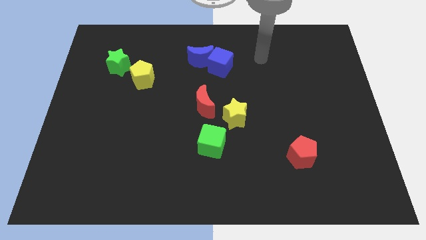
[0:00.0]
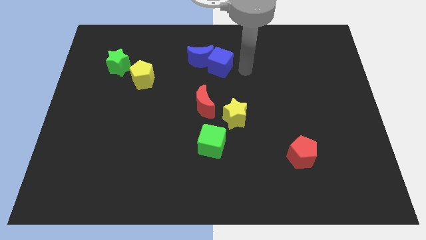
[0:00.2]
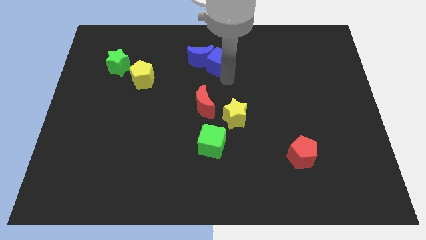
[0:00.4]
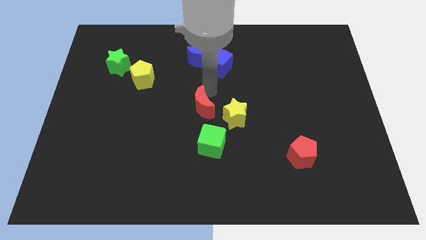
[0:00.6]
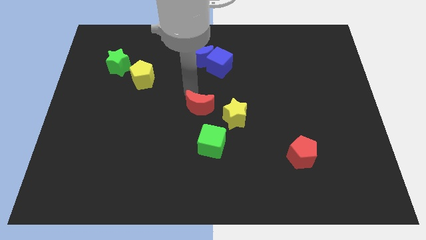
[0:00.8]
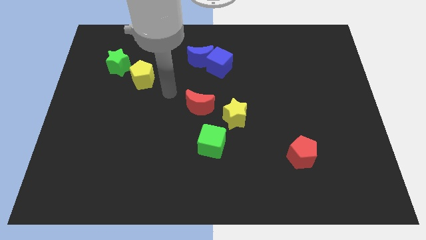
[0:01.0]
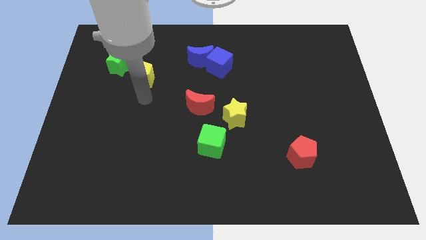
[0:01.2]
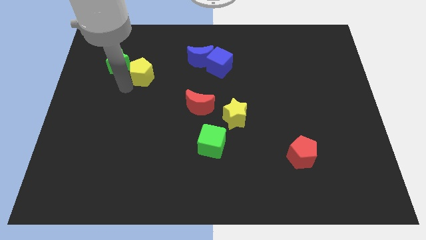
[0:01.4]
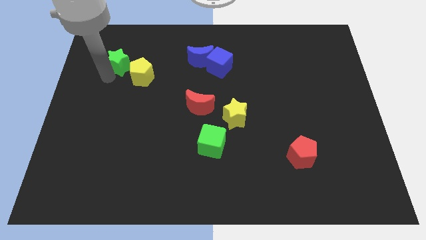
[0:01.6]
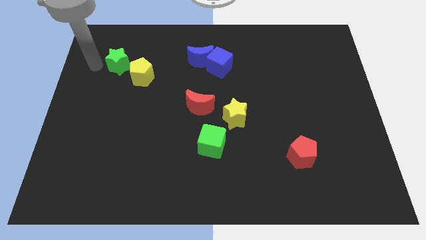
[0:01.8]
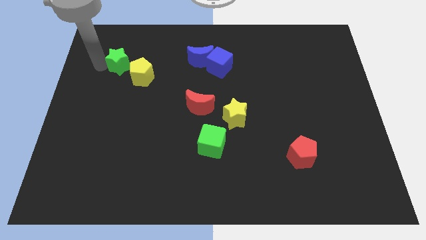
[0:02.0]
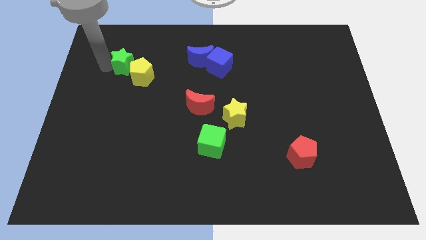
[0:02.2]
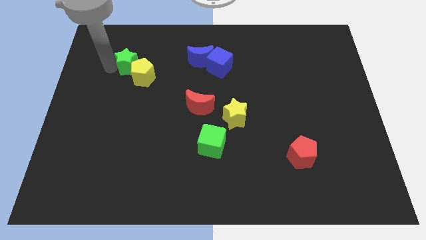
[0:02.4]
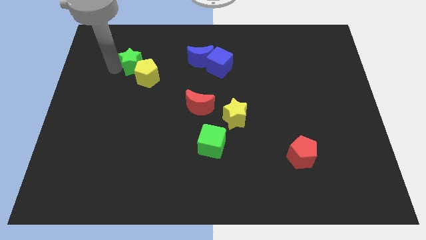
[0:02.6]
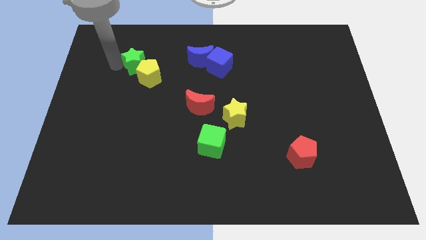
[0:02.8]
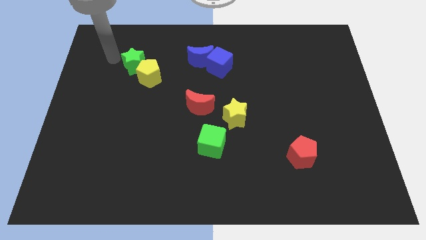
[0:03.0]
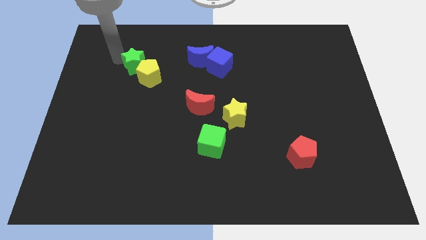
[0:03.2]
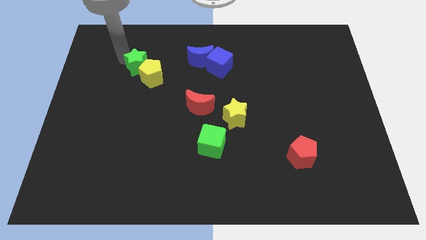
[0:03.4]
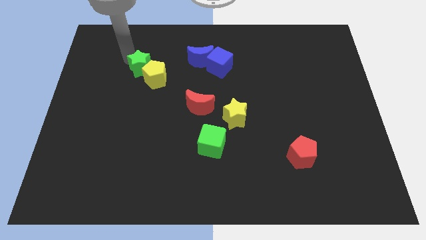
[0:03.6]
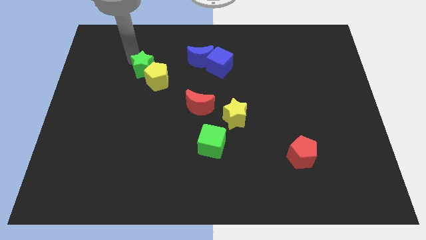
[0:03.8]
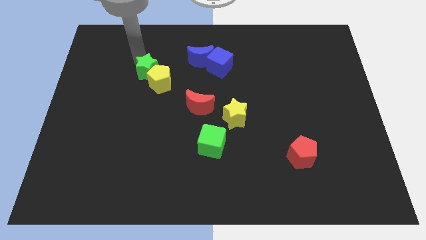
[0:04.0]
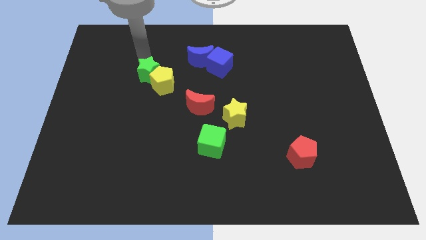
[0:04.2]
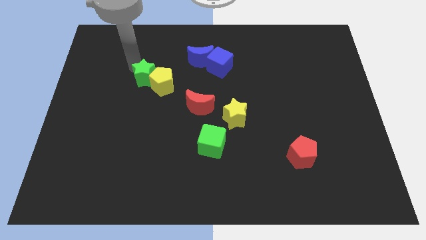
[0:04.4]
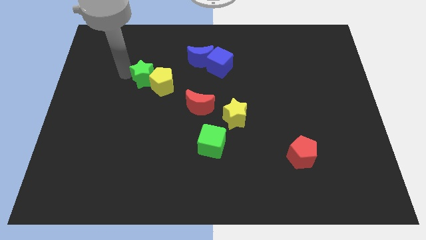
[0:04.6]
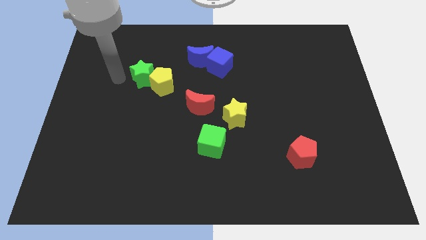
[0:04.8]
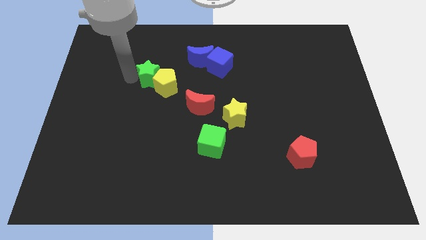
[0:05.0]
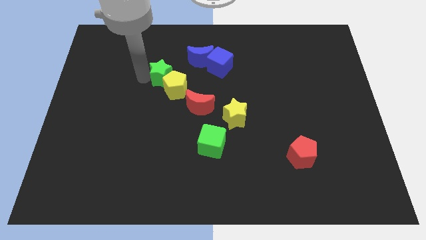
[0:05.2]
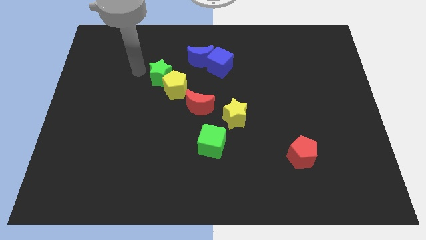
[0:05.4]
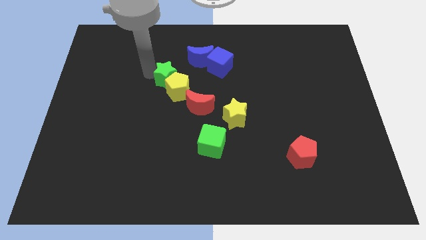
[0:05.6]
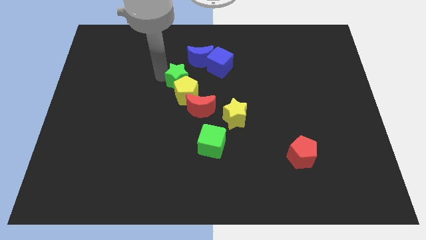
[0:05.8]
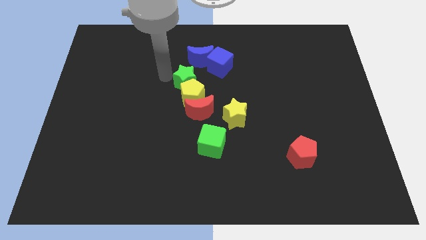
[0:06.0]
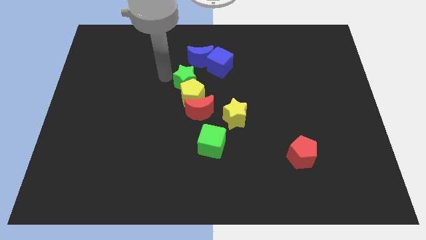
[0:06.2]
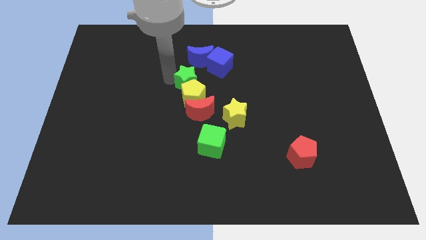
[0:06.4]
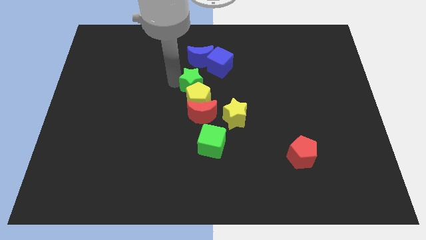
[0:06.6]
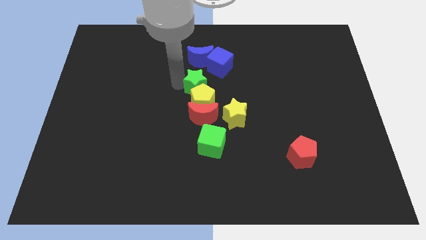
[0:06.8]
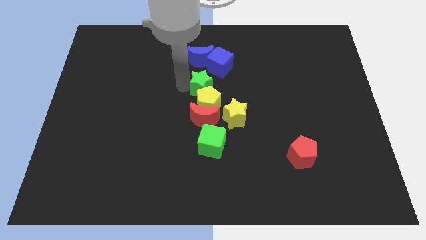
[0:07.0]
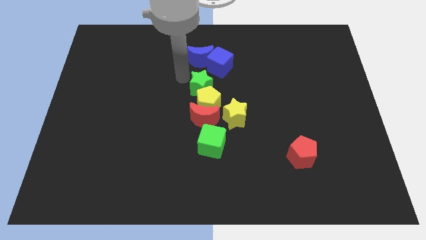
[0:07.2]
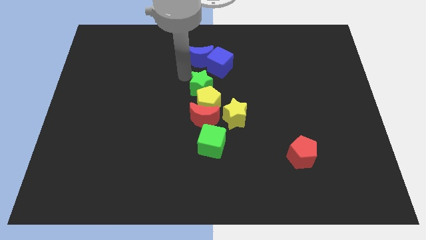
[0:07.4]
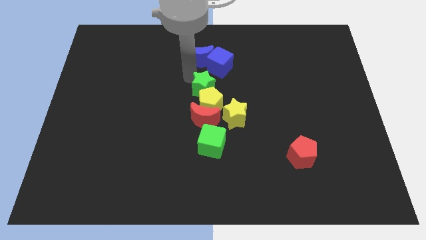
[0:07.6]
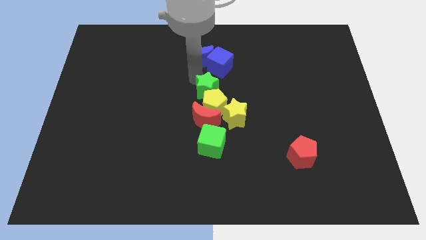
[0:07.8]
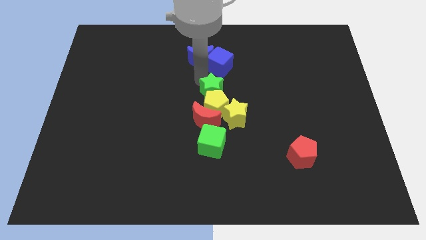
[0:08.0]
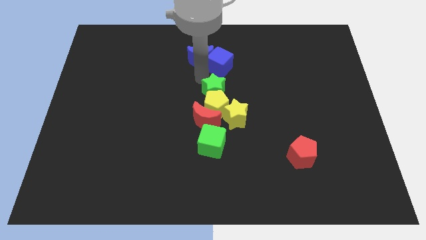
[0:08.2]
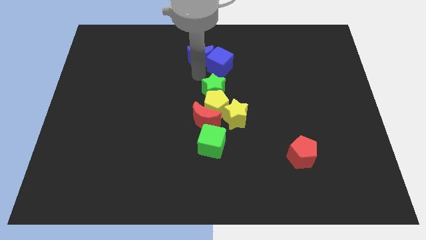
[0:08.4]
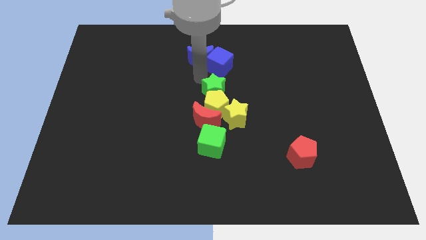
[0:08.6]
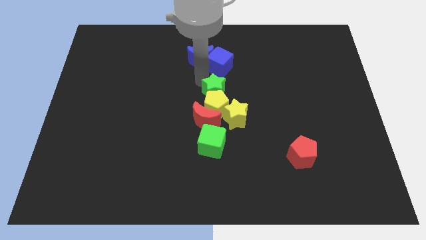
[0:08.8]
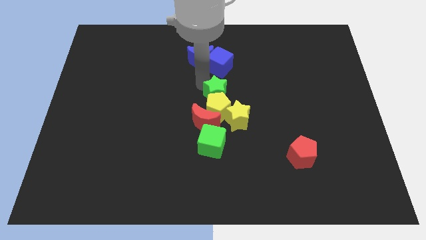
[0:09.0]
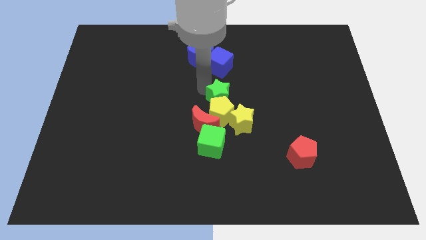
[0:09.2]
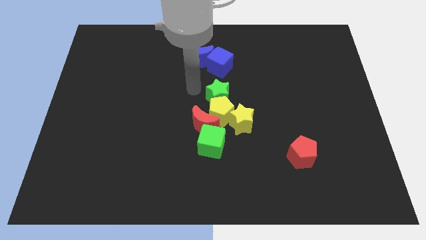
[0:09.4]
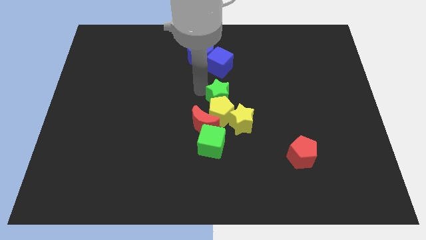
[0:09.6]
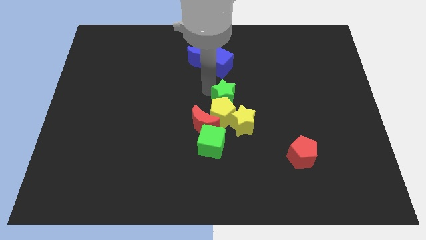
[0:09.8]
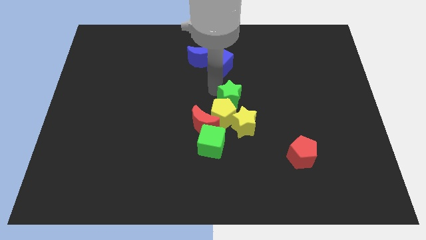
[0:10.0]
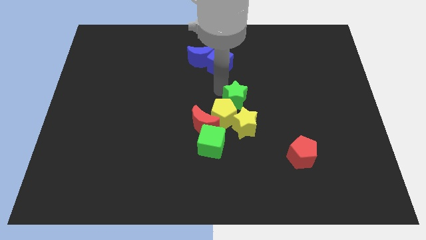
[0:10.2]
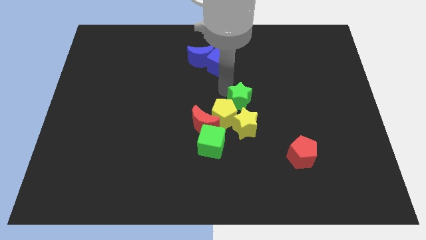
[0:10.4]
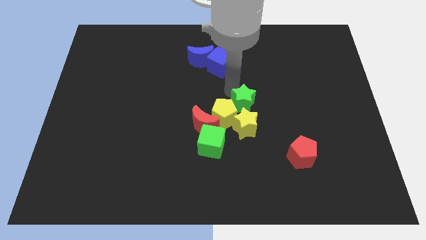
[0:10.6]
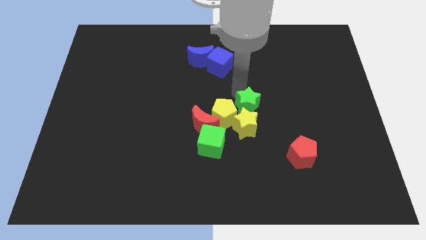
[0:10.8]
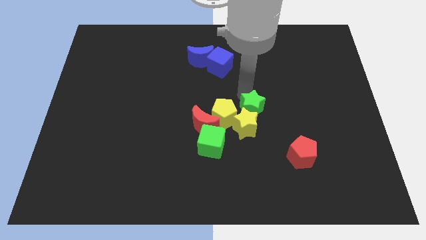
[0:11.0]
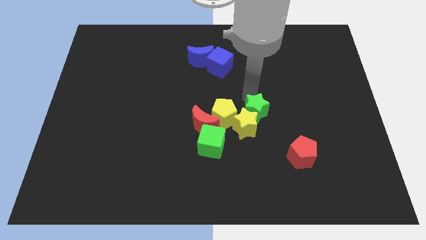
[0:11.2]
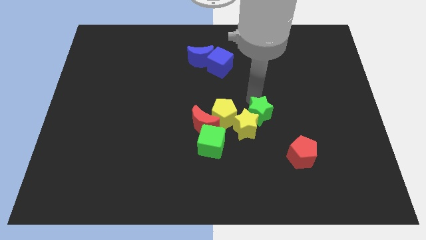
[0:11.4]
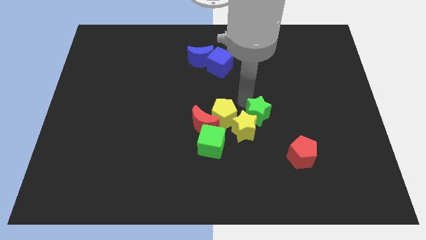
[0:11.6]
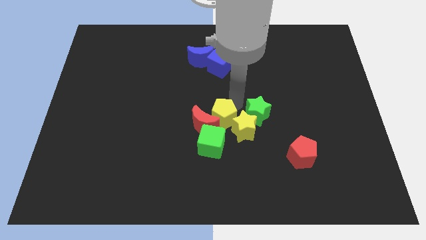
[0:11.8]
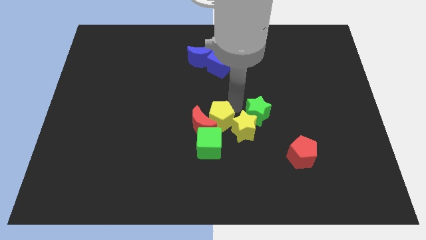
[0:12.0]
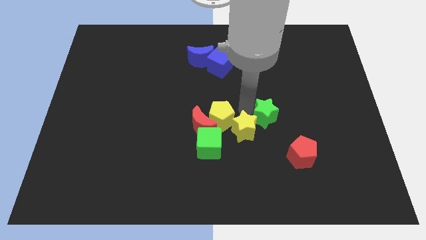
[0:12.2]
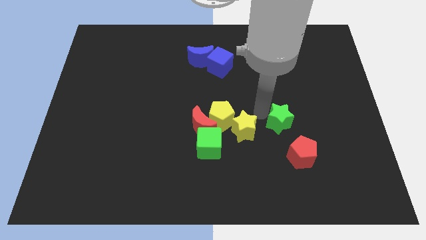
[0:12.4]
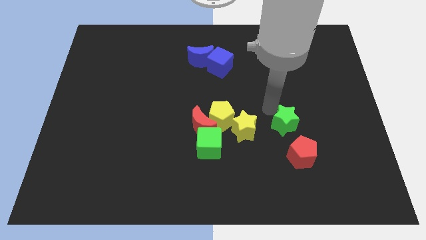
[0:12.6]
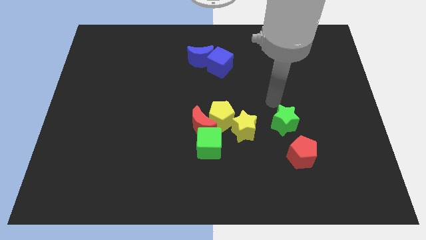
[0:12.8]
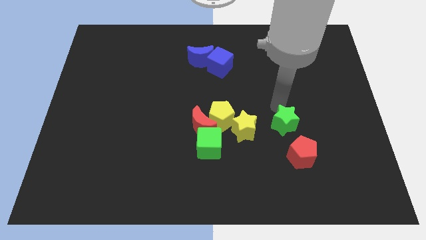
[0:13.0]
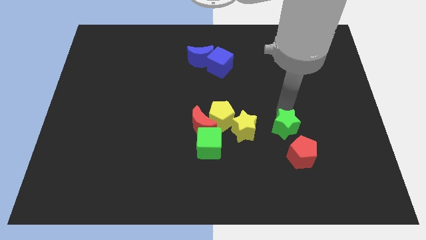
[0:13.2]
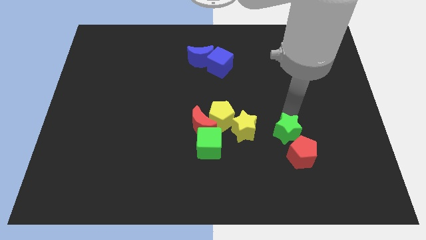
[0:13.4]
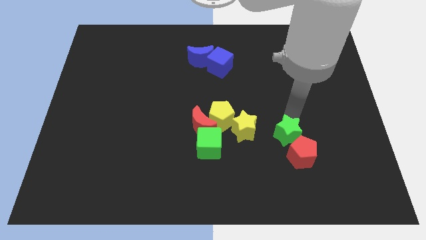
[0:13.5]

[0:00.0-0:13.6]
push the green star towards the red pentagon
